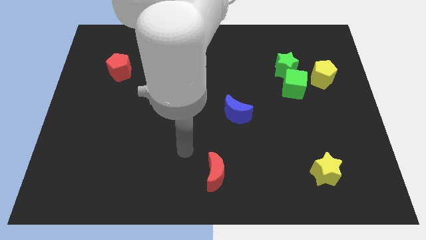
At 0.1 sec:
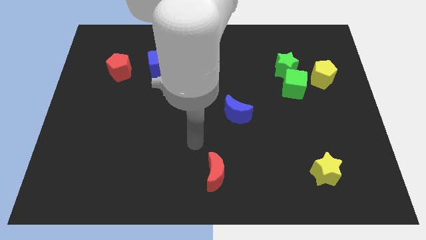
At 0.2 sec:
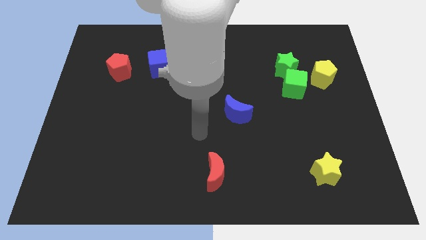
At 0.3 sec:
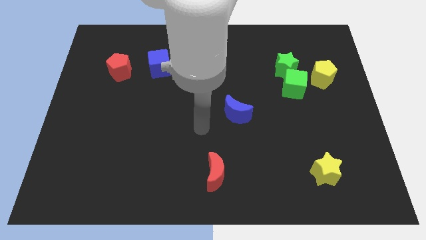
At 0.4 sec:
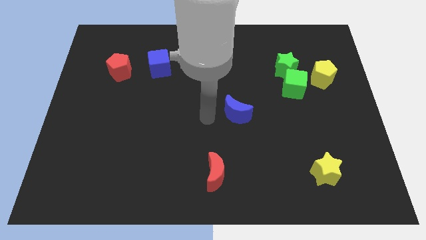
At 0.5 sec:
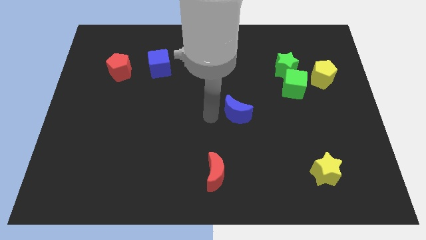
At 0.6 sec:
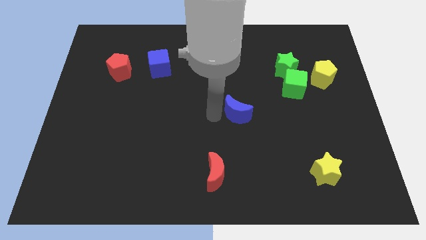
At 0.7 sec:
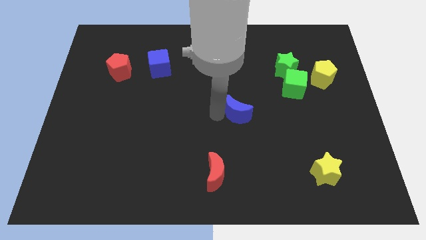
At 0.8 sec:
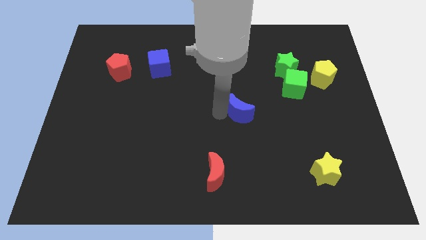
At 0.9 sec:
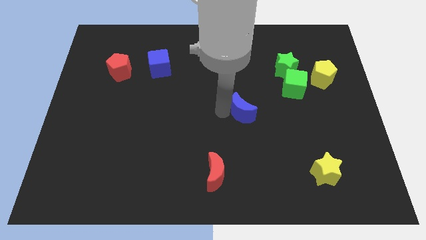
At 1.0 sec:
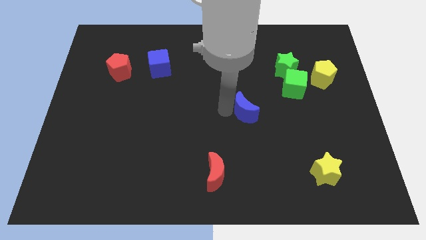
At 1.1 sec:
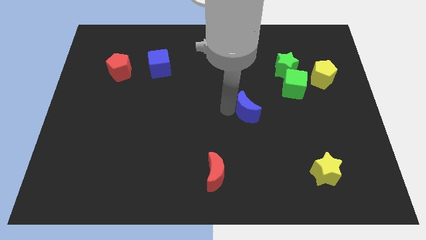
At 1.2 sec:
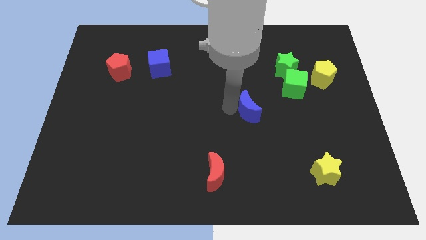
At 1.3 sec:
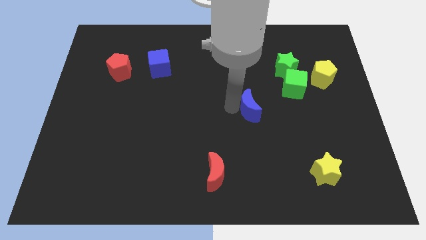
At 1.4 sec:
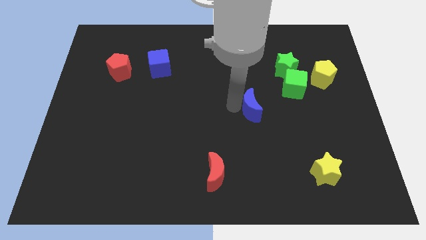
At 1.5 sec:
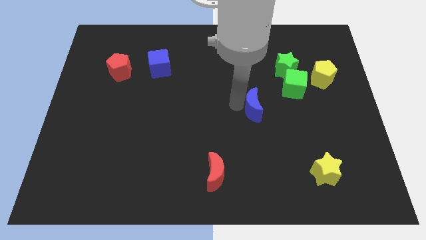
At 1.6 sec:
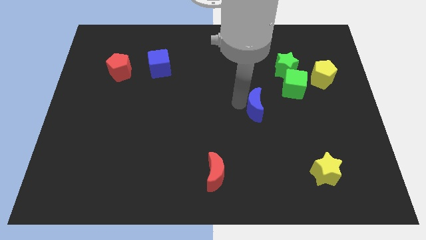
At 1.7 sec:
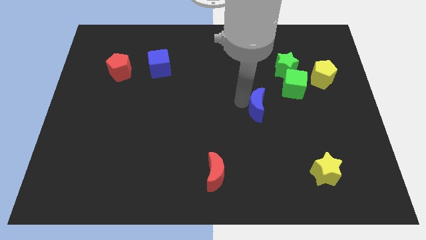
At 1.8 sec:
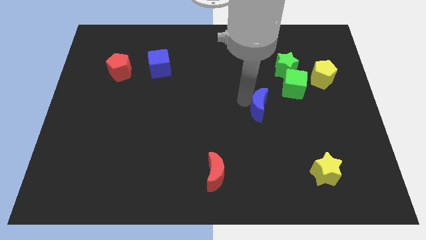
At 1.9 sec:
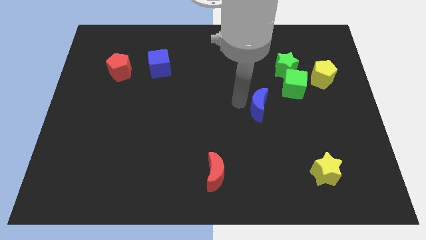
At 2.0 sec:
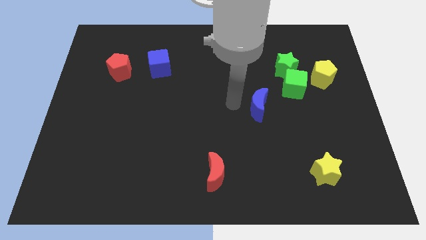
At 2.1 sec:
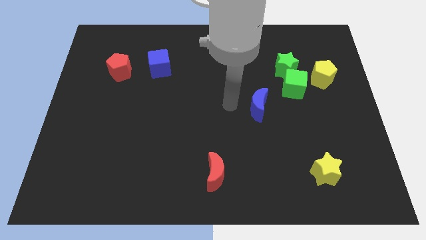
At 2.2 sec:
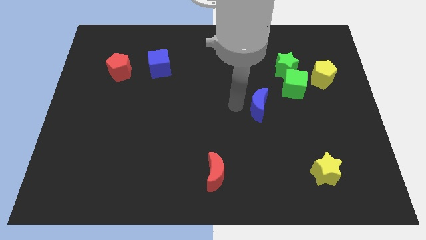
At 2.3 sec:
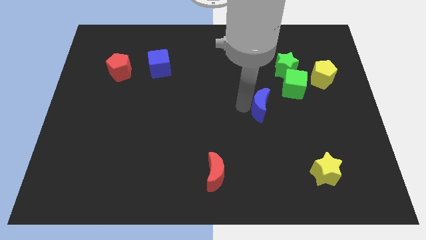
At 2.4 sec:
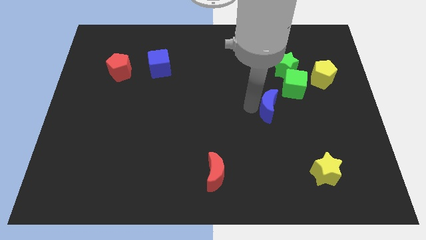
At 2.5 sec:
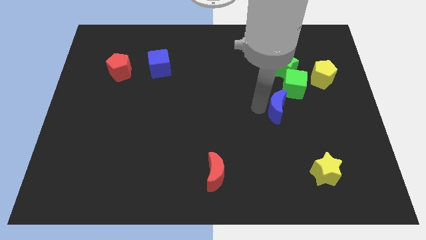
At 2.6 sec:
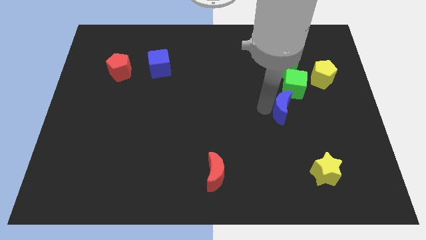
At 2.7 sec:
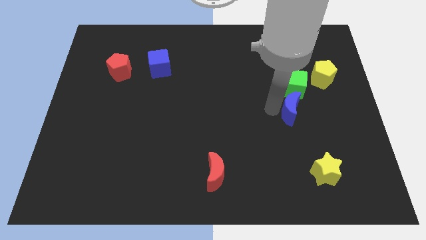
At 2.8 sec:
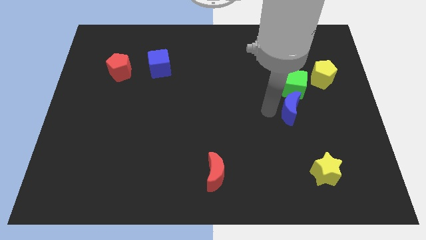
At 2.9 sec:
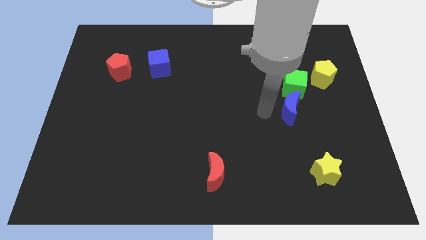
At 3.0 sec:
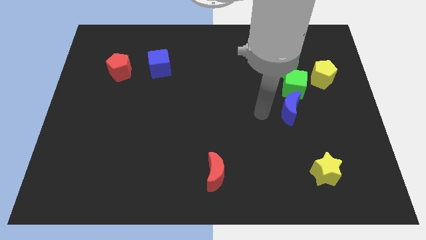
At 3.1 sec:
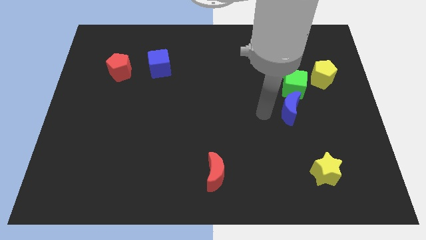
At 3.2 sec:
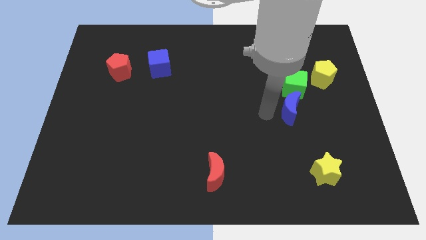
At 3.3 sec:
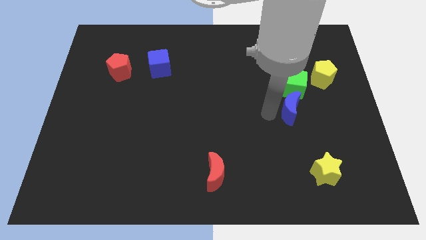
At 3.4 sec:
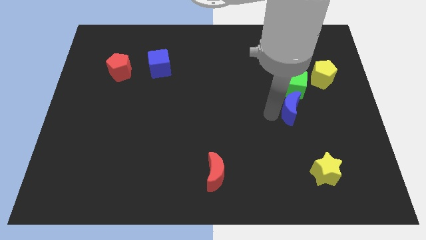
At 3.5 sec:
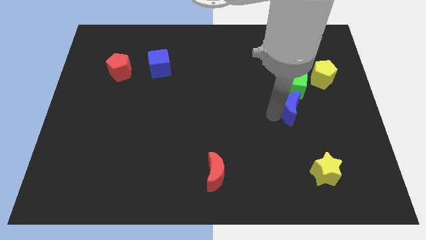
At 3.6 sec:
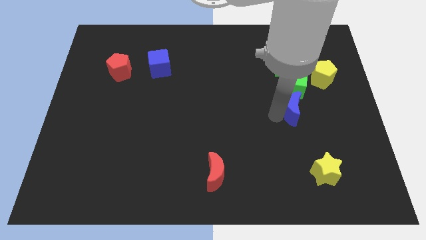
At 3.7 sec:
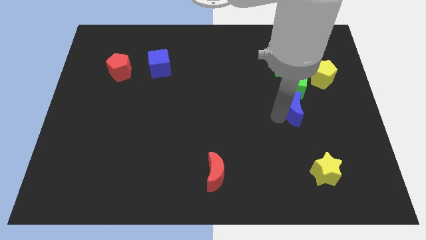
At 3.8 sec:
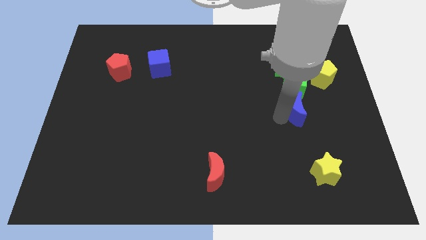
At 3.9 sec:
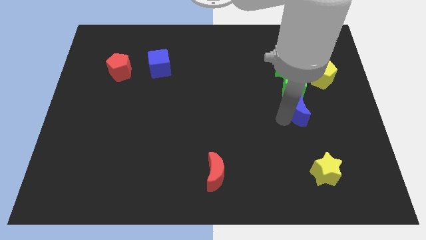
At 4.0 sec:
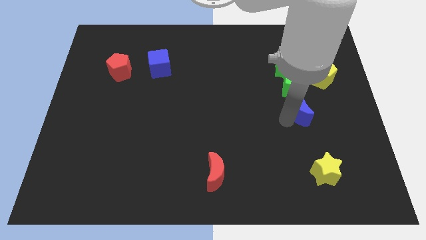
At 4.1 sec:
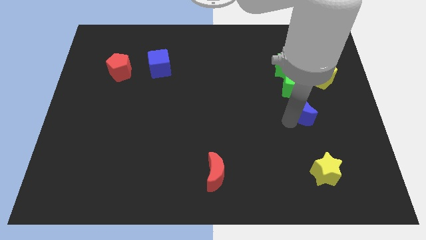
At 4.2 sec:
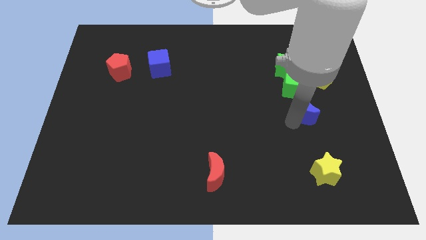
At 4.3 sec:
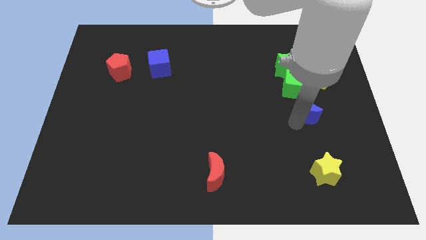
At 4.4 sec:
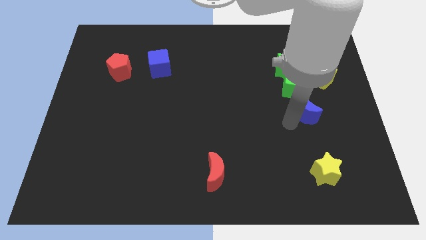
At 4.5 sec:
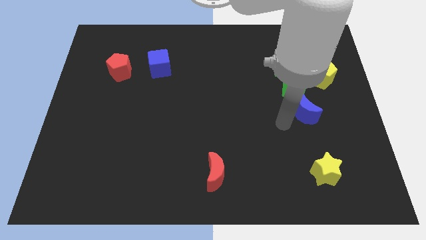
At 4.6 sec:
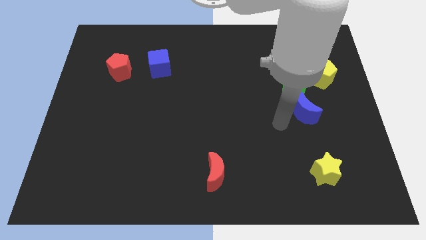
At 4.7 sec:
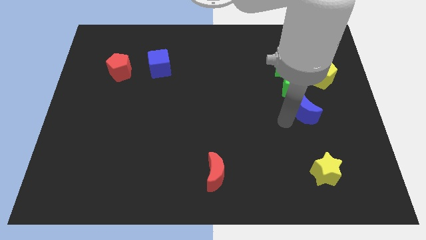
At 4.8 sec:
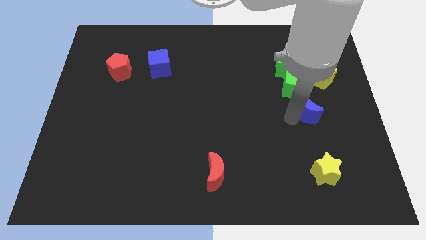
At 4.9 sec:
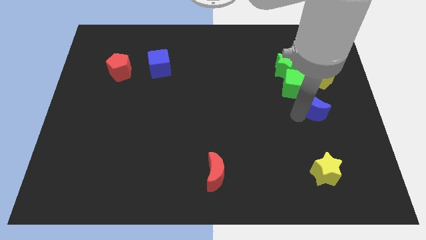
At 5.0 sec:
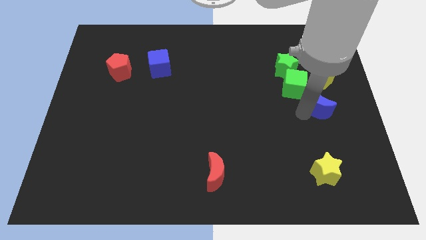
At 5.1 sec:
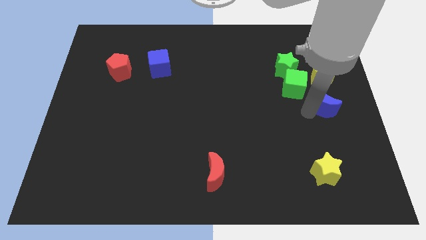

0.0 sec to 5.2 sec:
slide the blue moon to the right side of the board

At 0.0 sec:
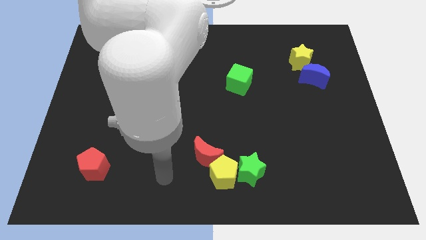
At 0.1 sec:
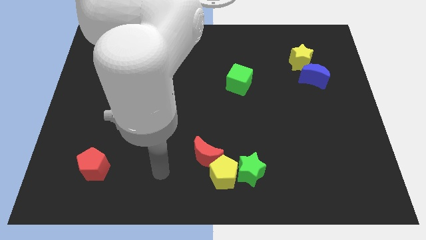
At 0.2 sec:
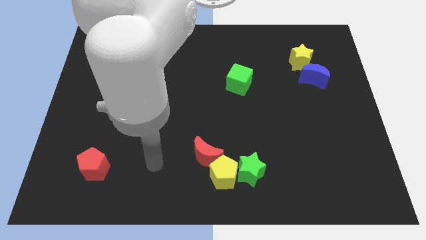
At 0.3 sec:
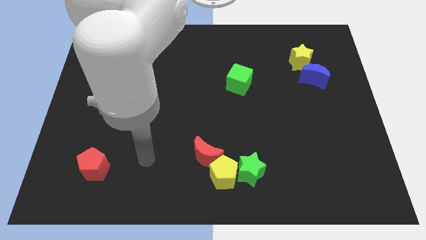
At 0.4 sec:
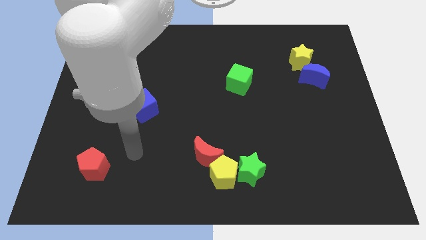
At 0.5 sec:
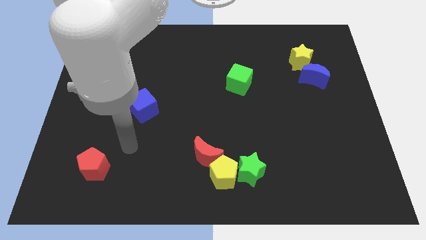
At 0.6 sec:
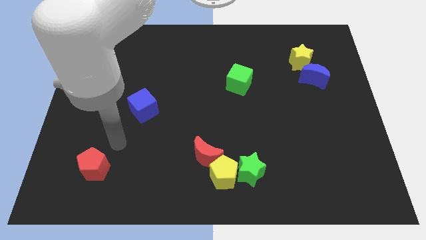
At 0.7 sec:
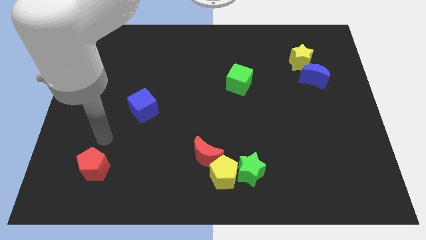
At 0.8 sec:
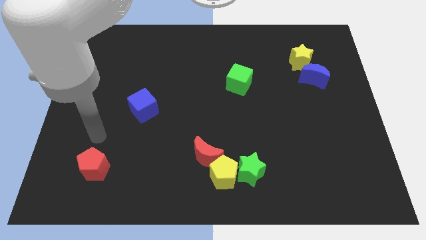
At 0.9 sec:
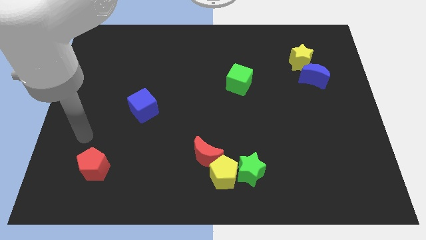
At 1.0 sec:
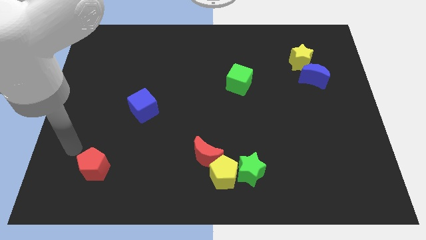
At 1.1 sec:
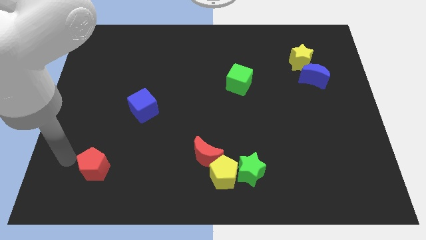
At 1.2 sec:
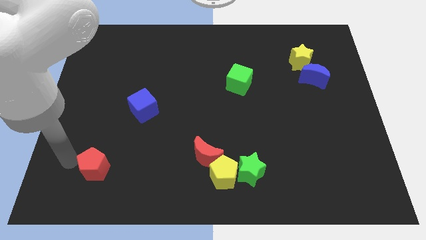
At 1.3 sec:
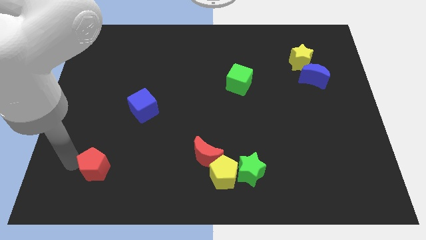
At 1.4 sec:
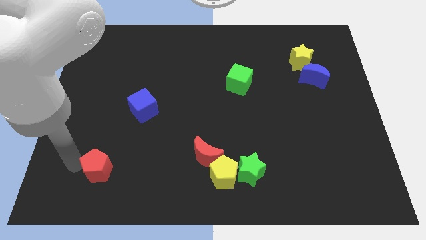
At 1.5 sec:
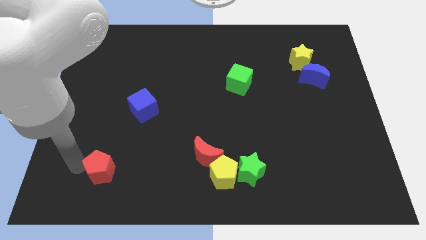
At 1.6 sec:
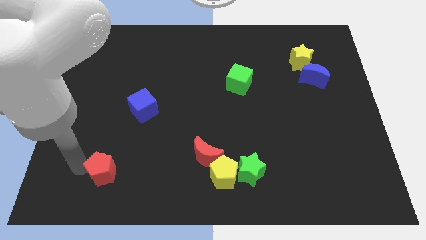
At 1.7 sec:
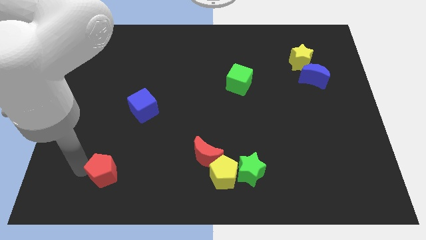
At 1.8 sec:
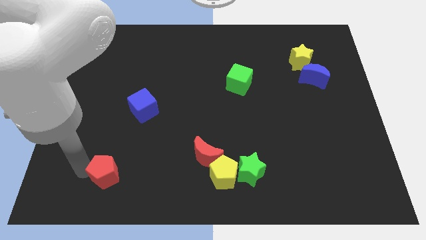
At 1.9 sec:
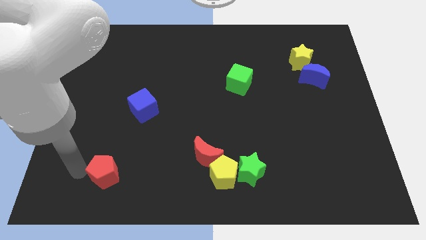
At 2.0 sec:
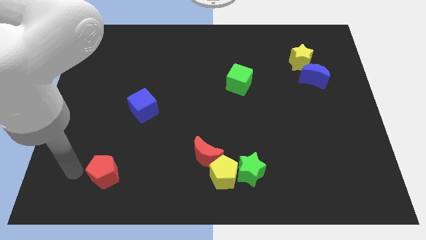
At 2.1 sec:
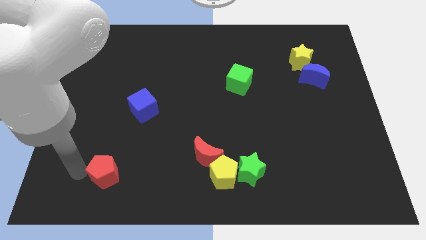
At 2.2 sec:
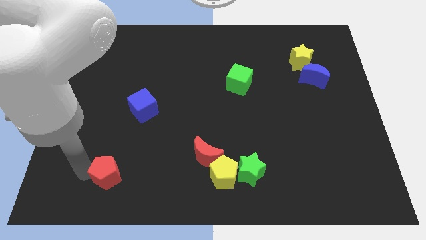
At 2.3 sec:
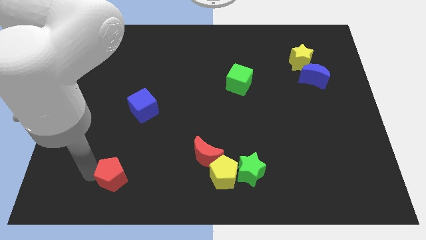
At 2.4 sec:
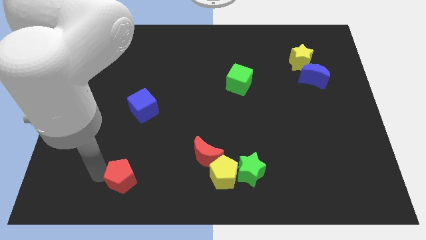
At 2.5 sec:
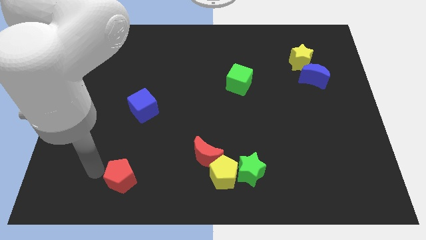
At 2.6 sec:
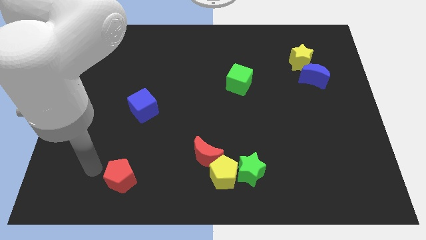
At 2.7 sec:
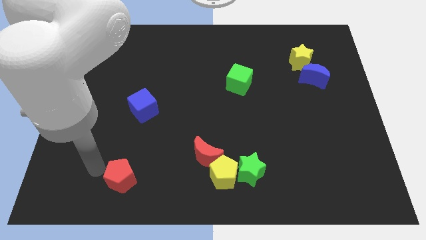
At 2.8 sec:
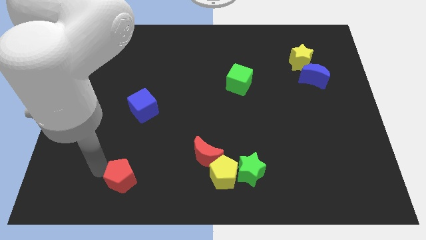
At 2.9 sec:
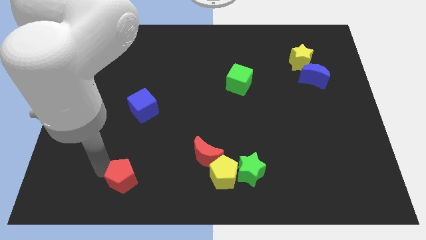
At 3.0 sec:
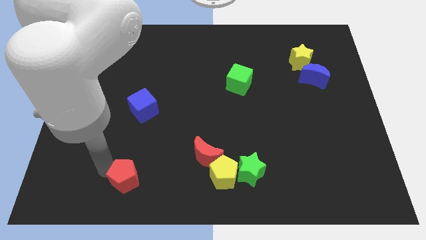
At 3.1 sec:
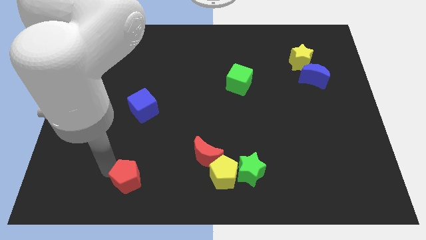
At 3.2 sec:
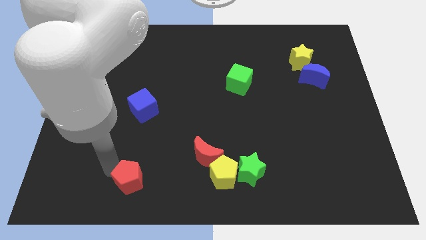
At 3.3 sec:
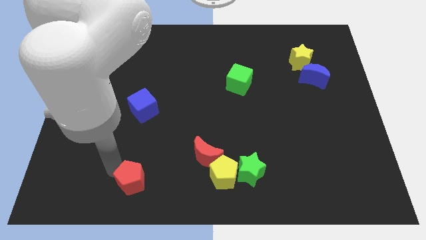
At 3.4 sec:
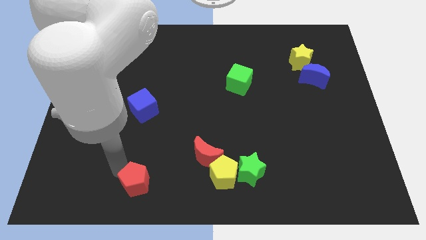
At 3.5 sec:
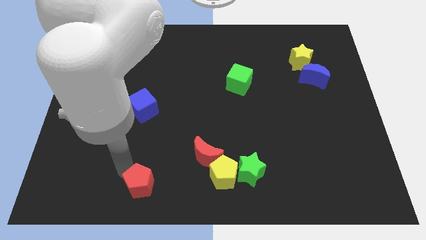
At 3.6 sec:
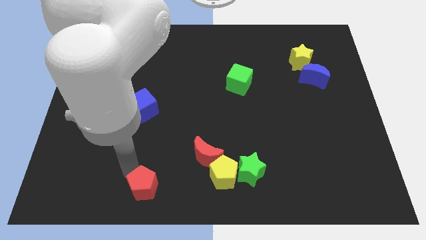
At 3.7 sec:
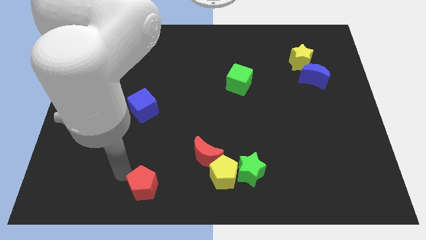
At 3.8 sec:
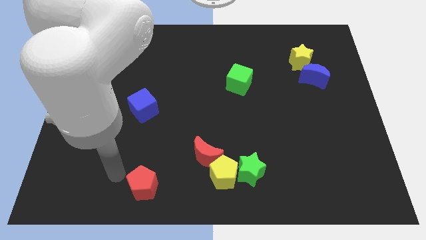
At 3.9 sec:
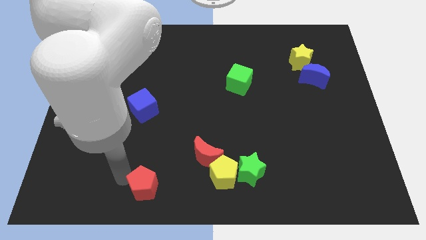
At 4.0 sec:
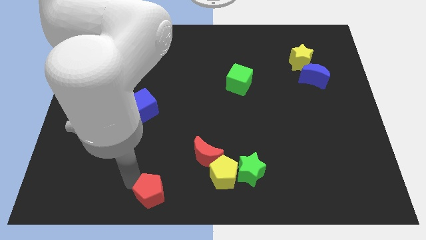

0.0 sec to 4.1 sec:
push the red pentagon to the bottom side
